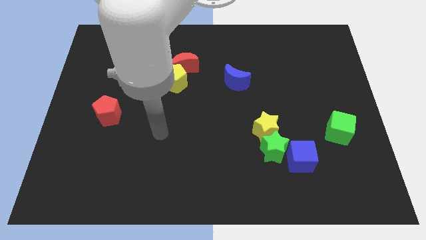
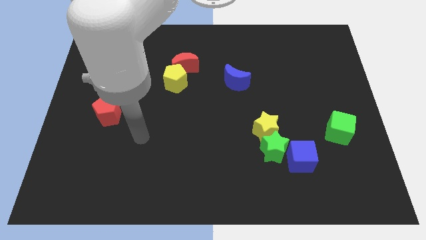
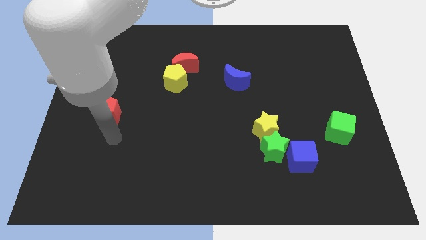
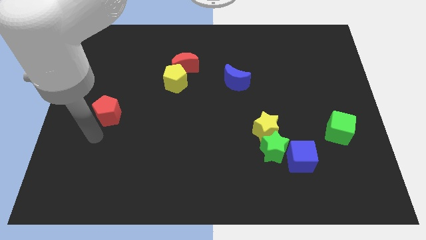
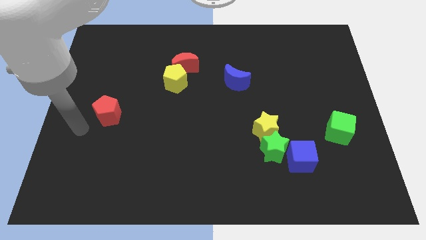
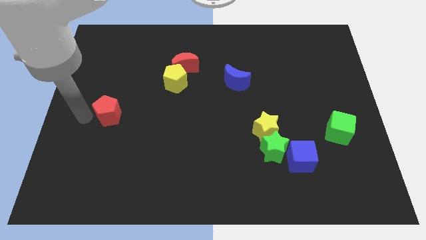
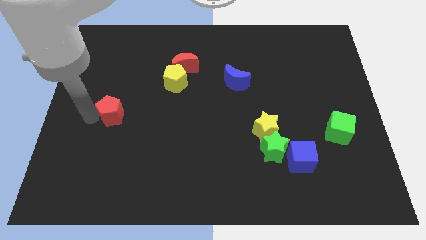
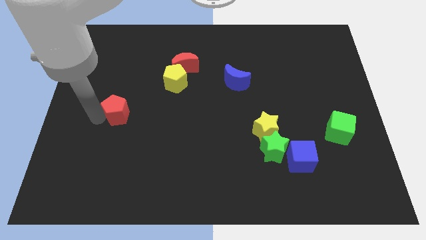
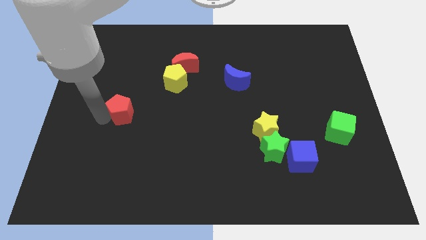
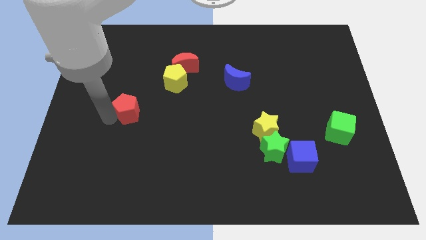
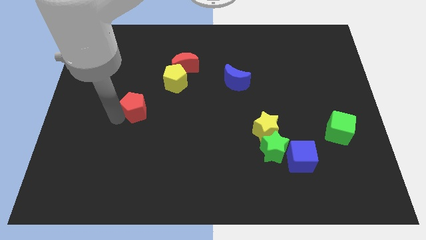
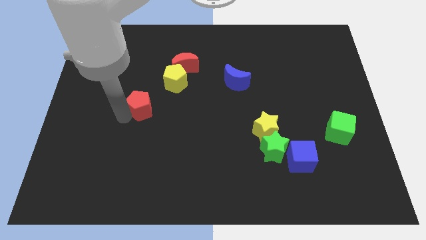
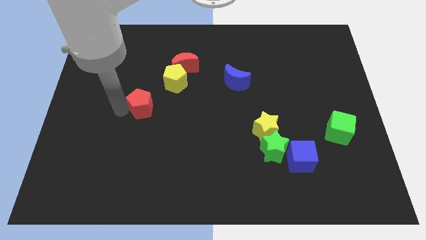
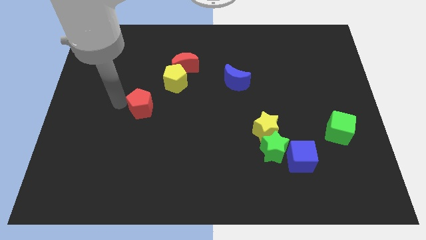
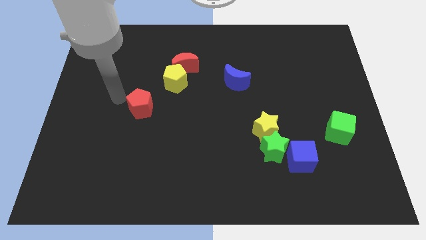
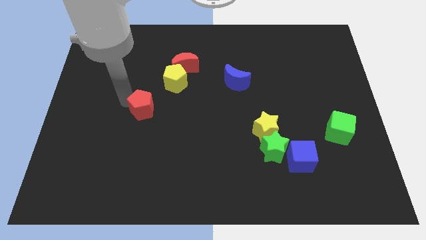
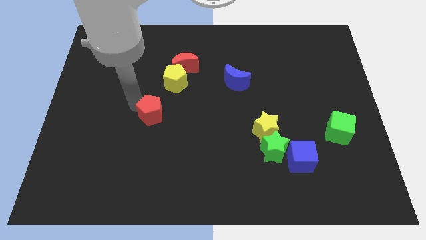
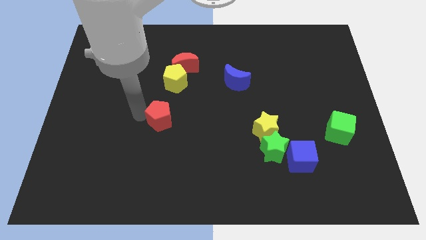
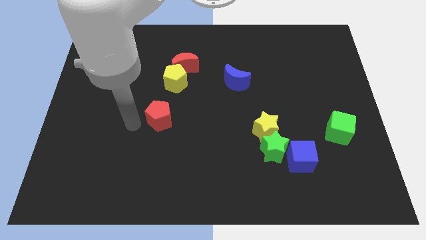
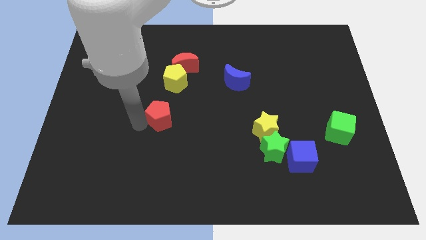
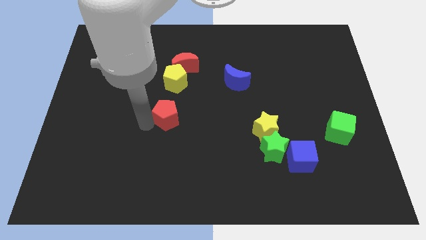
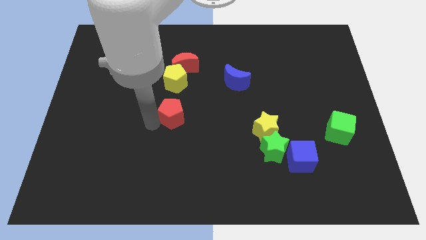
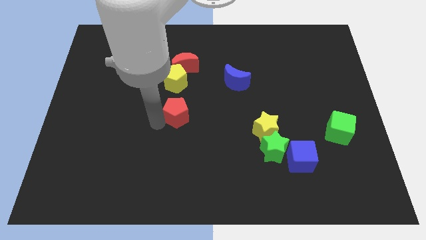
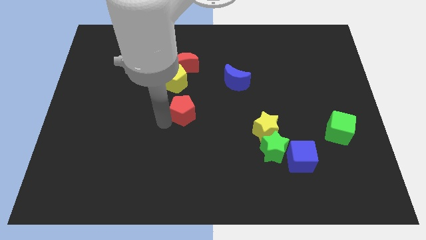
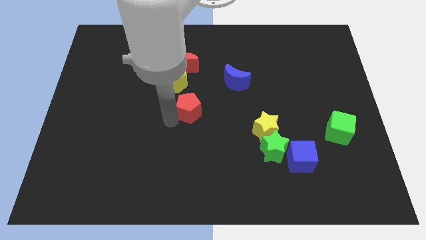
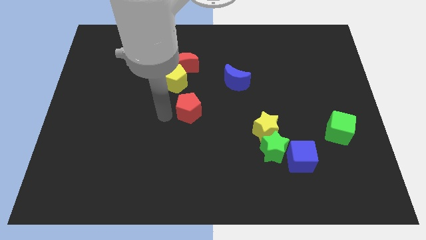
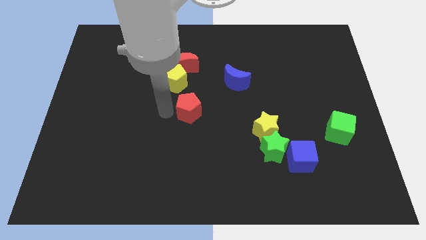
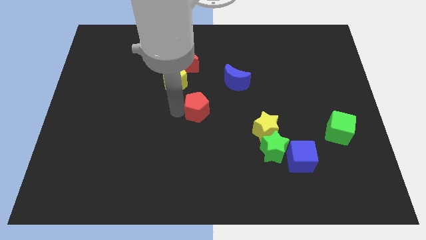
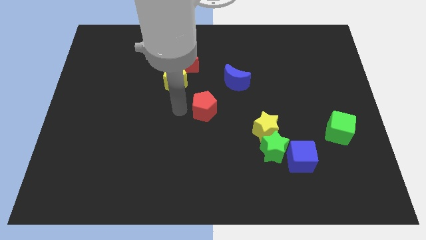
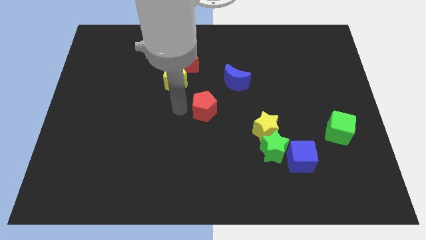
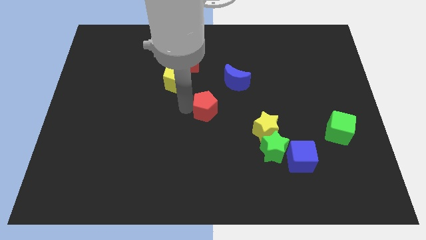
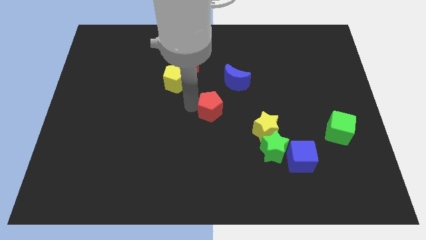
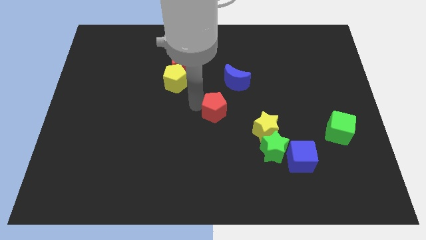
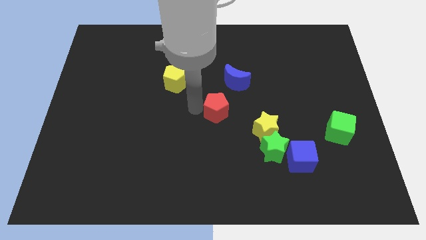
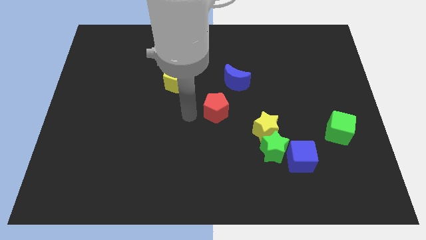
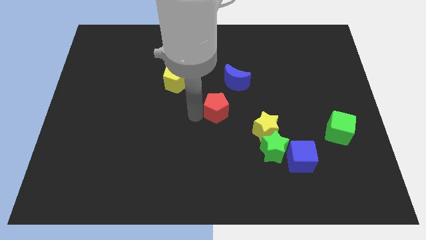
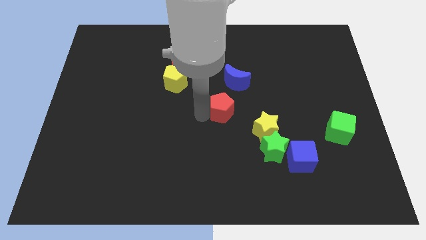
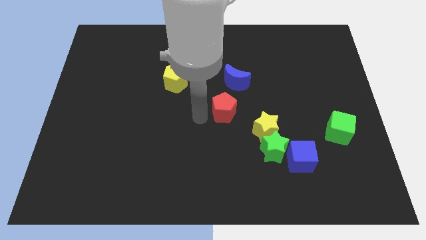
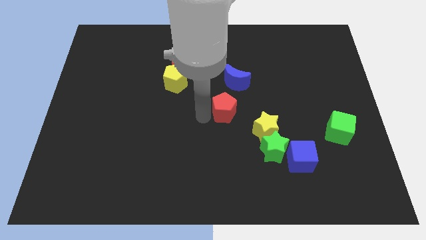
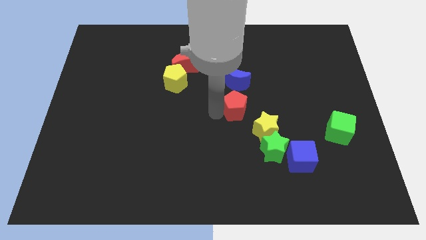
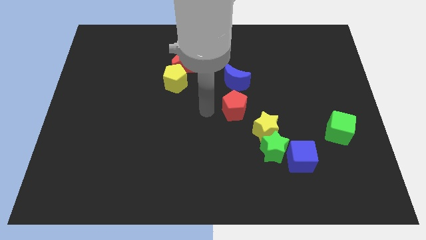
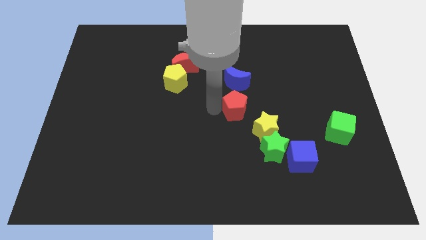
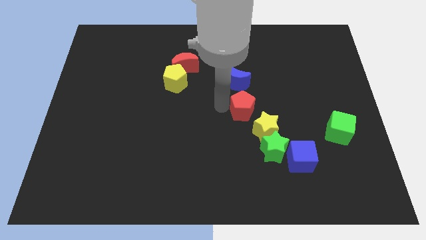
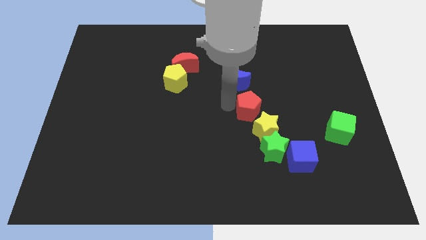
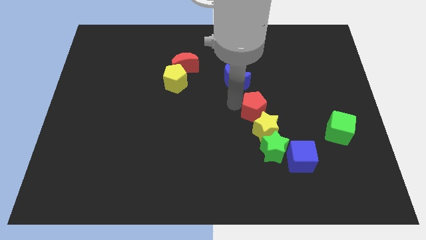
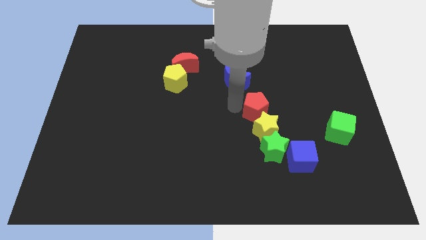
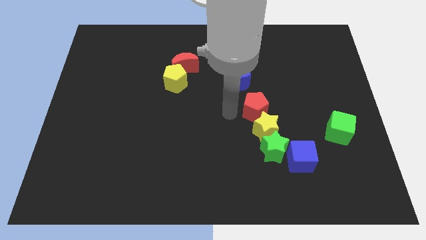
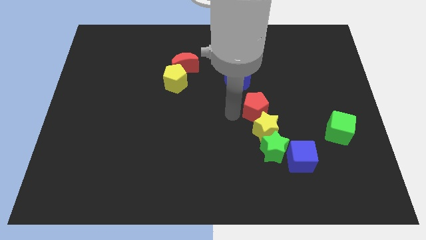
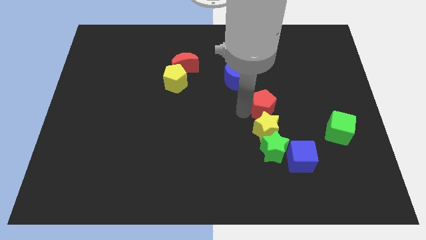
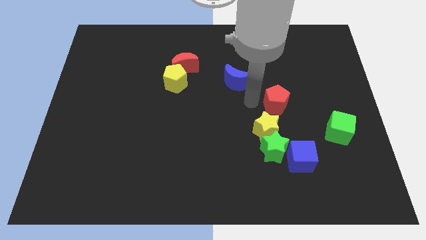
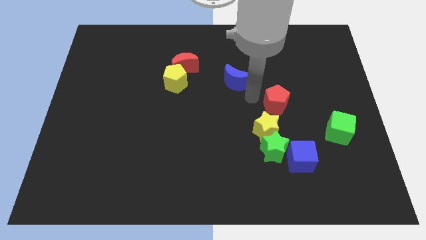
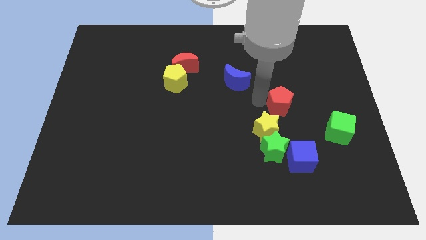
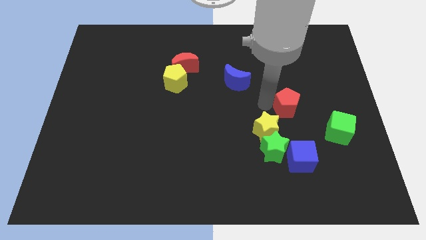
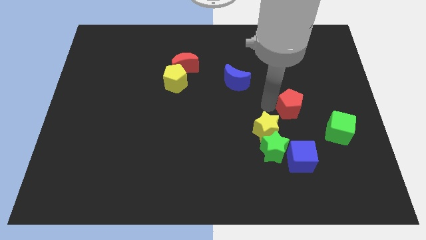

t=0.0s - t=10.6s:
push the red pentagon to the top left side of the green cube

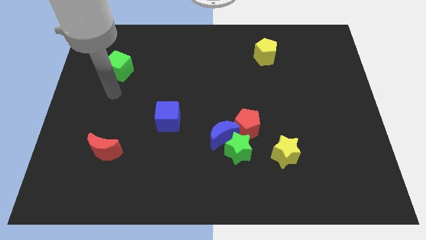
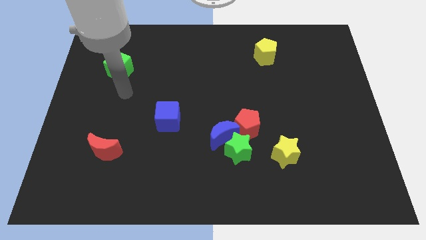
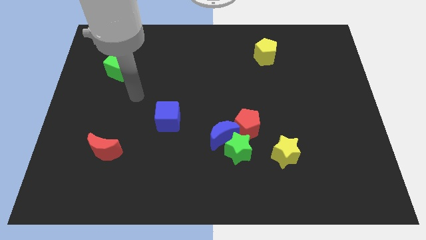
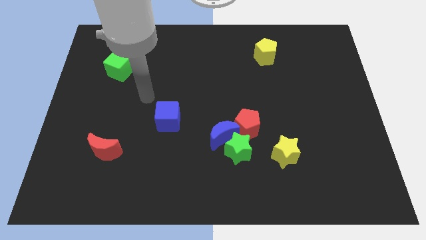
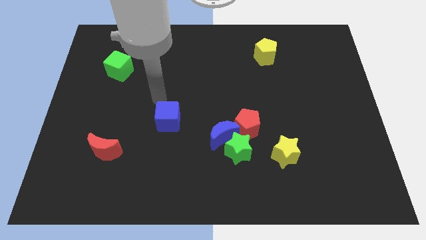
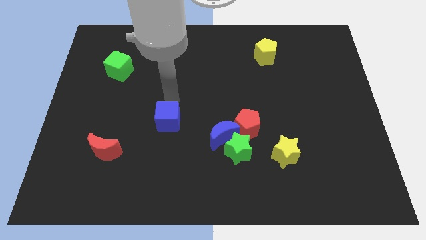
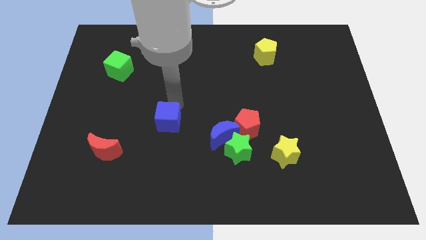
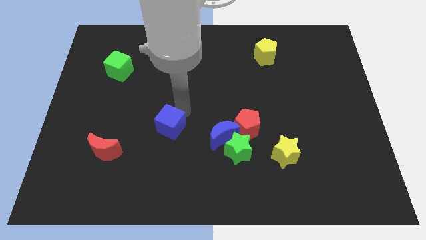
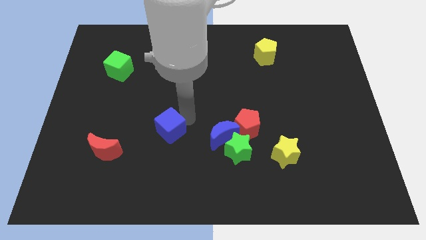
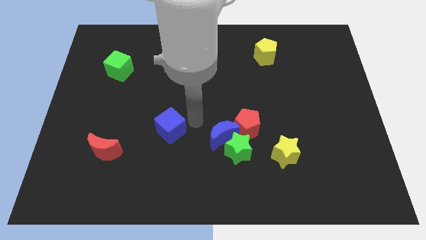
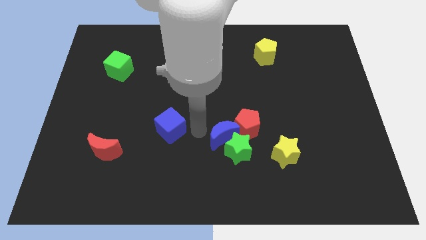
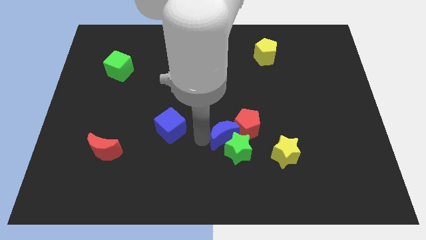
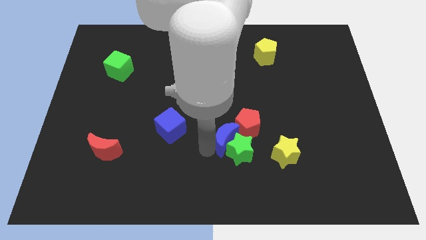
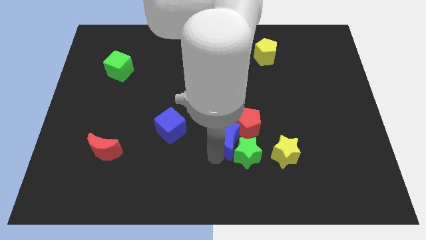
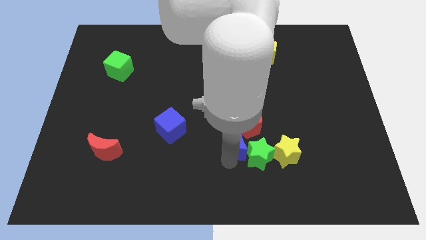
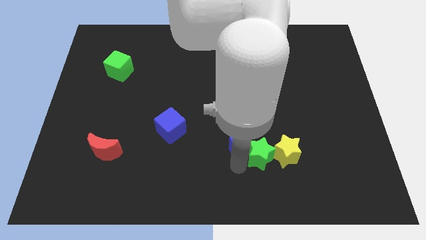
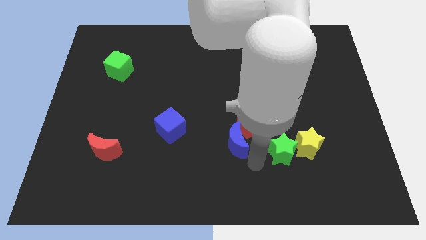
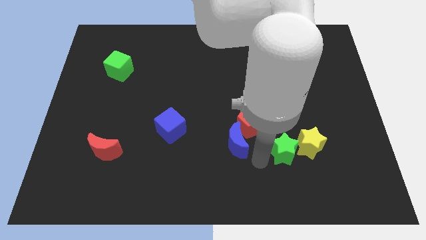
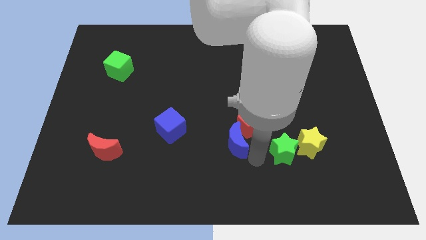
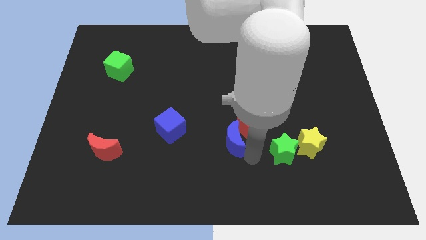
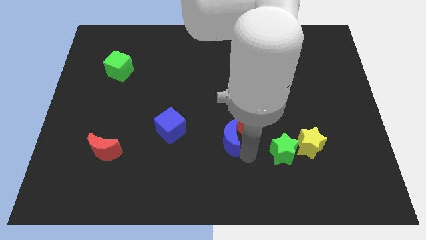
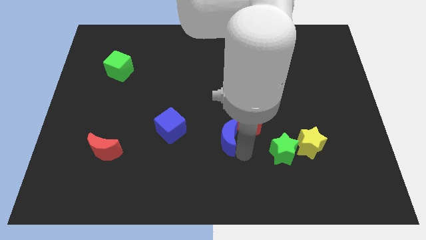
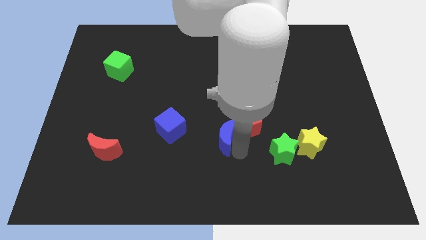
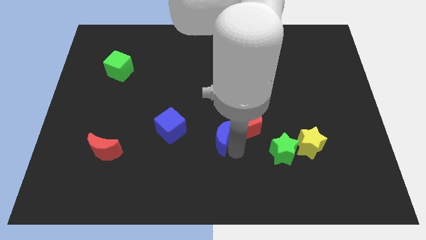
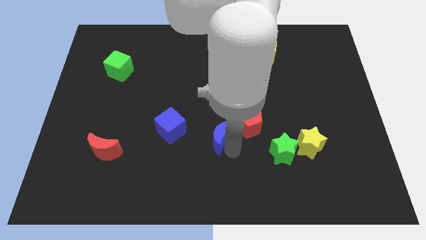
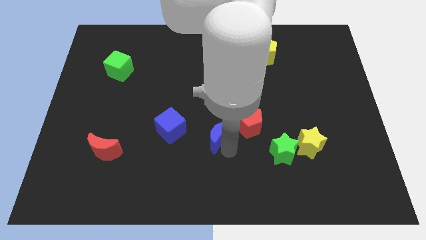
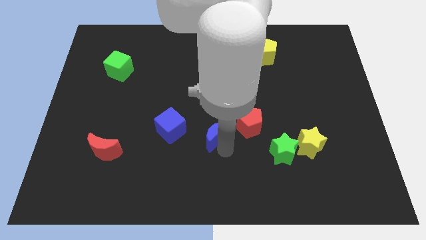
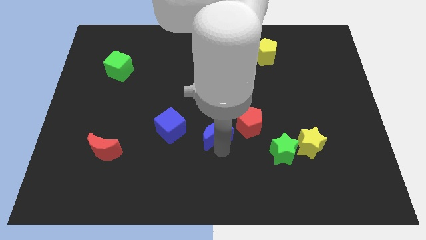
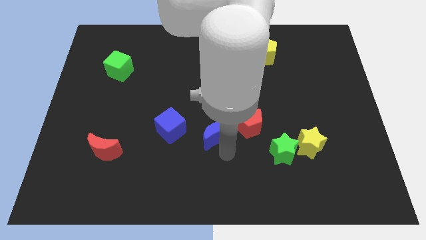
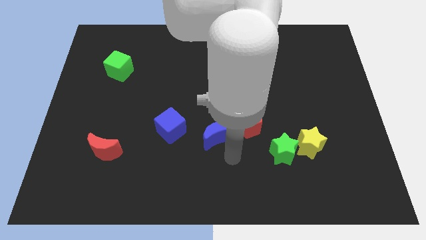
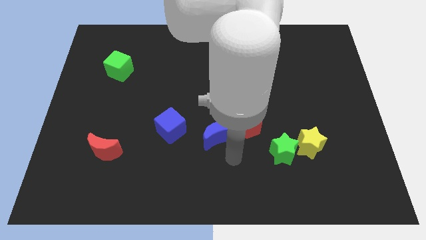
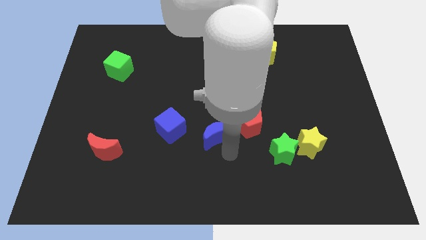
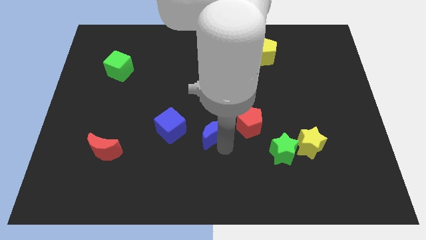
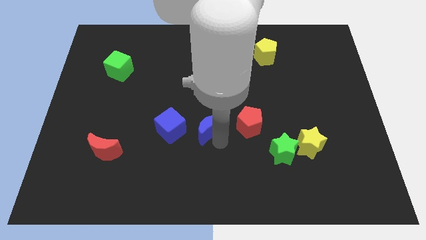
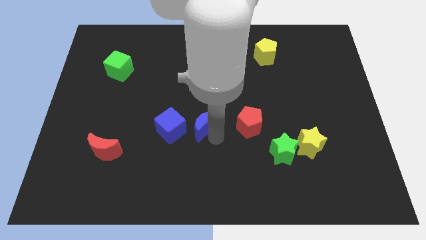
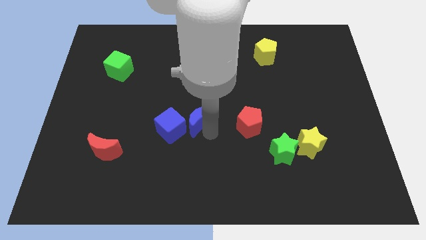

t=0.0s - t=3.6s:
move the blue moon to the top right side of the blue cube
